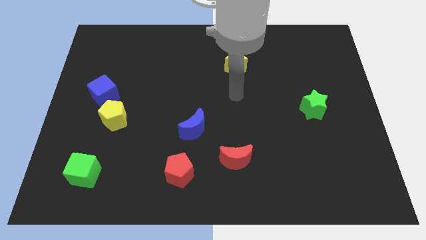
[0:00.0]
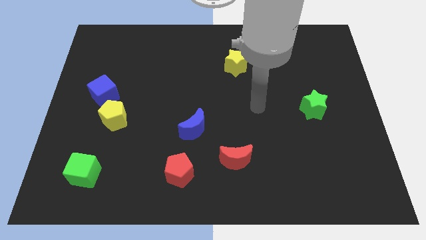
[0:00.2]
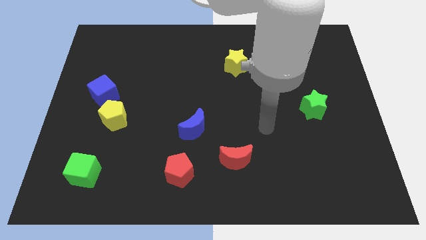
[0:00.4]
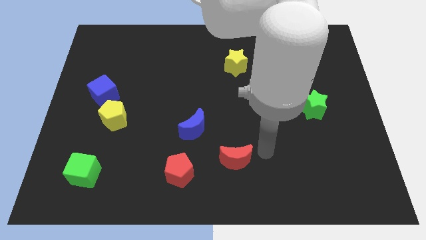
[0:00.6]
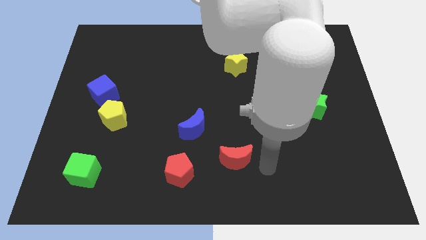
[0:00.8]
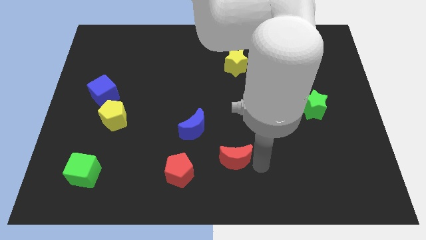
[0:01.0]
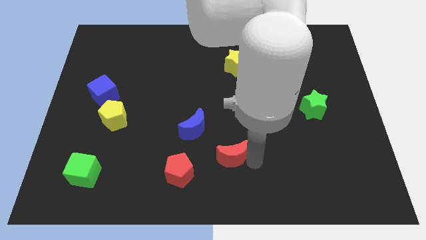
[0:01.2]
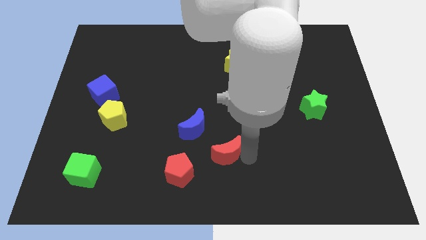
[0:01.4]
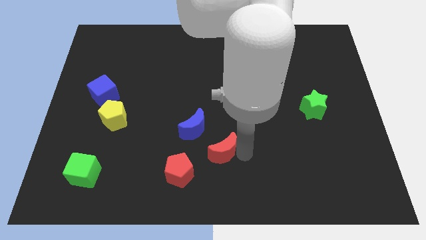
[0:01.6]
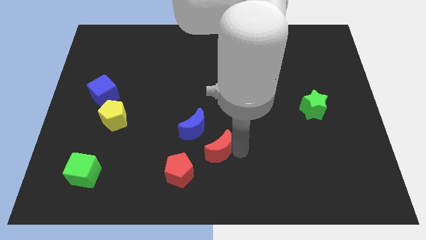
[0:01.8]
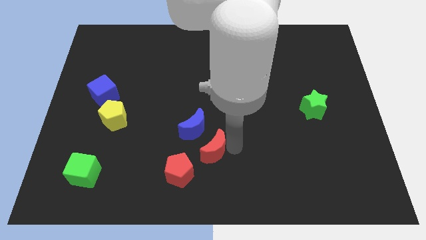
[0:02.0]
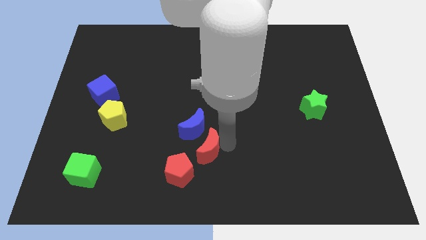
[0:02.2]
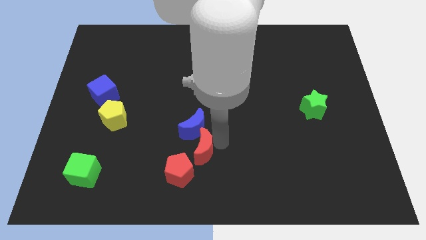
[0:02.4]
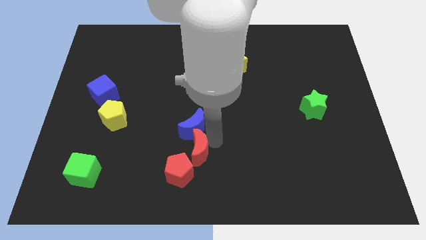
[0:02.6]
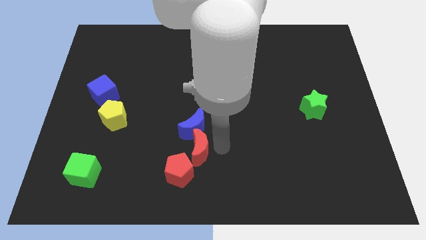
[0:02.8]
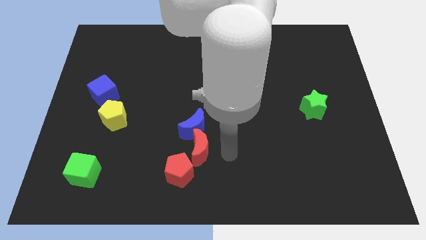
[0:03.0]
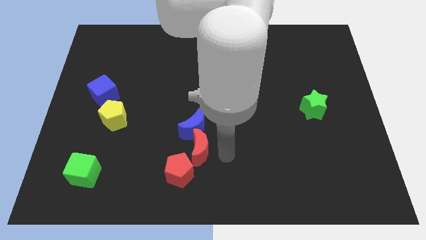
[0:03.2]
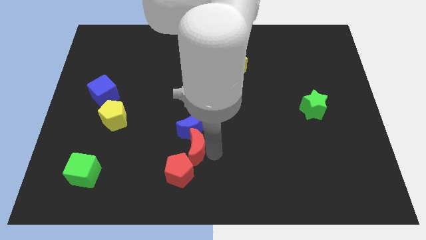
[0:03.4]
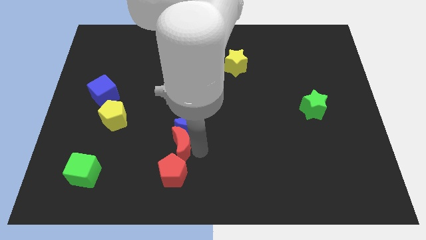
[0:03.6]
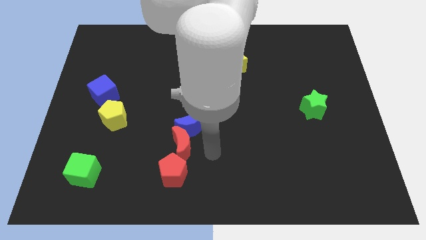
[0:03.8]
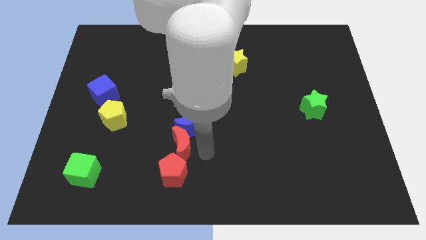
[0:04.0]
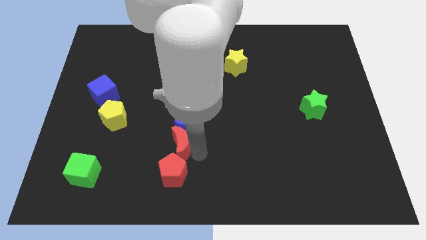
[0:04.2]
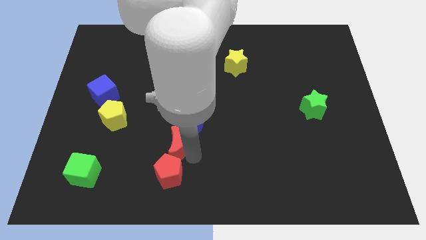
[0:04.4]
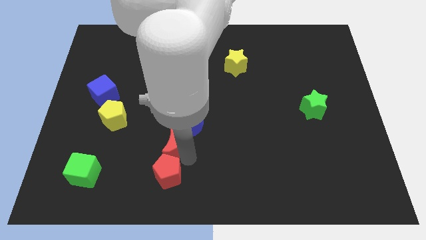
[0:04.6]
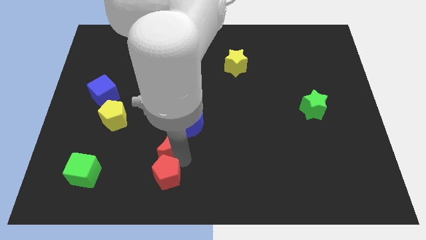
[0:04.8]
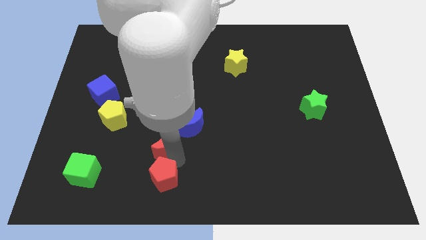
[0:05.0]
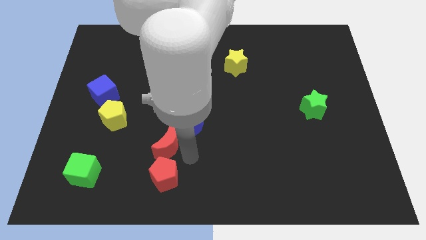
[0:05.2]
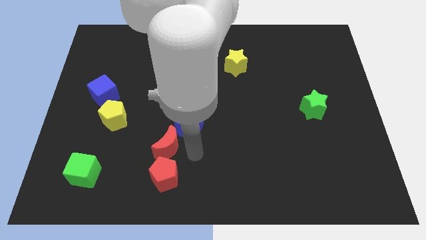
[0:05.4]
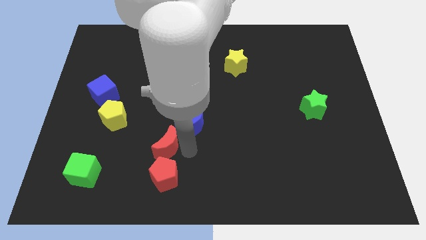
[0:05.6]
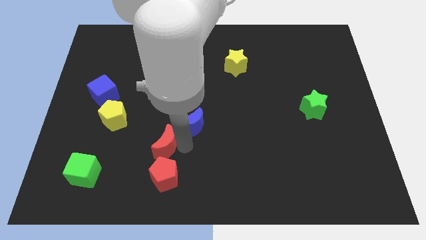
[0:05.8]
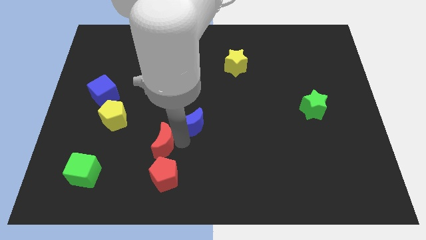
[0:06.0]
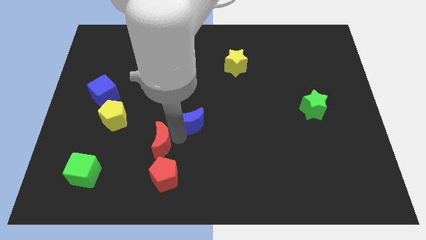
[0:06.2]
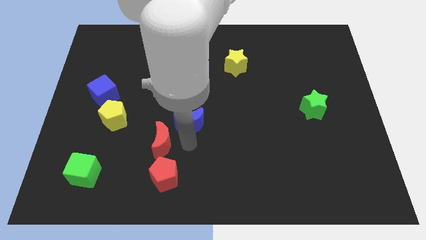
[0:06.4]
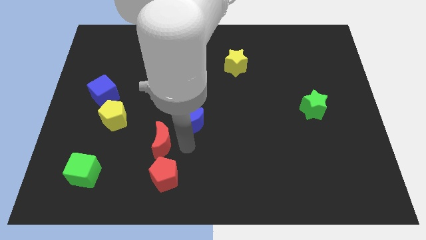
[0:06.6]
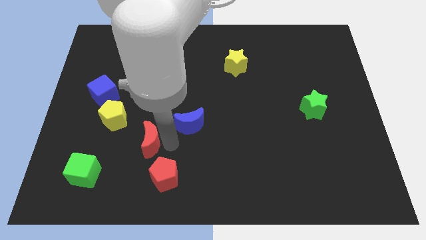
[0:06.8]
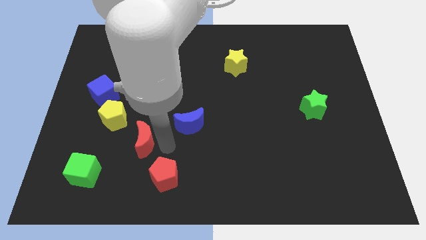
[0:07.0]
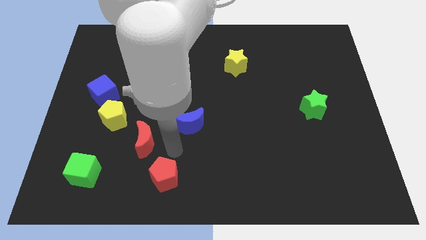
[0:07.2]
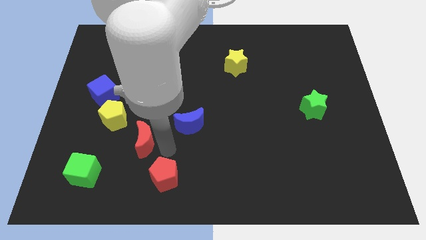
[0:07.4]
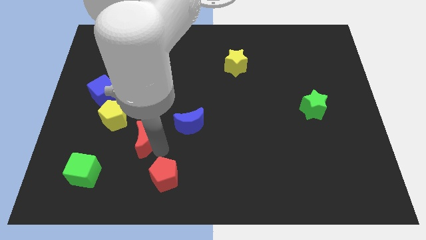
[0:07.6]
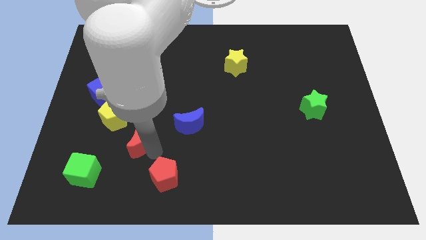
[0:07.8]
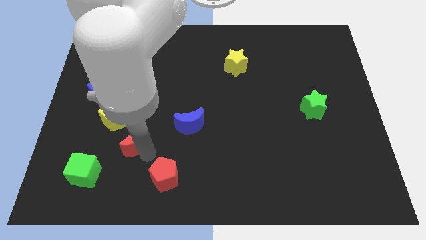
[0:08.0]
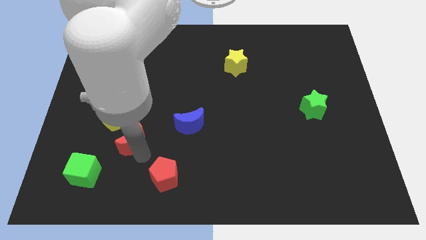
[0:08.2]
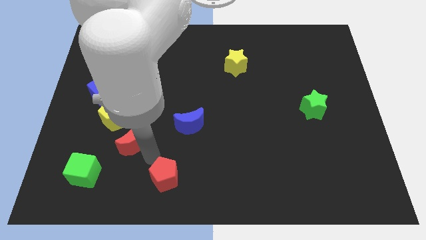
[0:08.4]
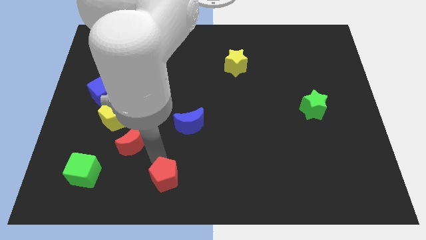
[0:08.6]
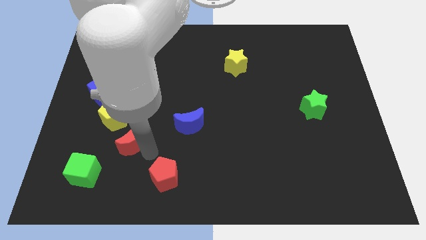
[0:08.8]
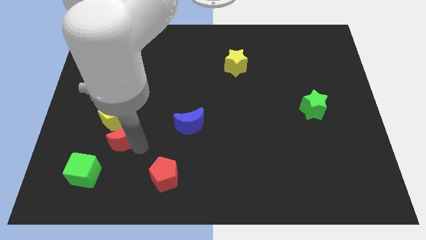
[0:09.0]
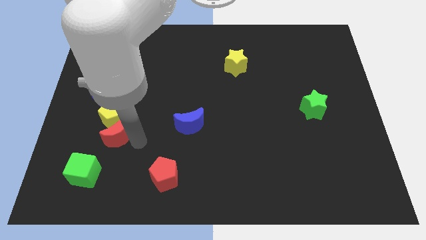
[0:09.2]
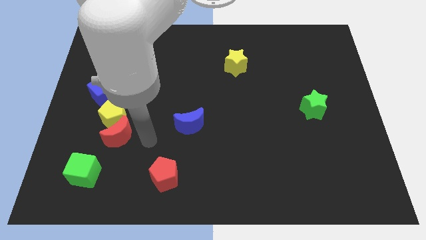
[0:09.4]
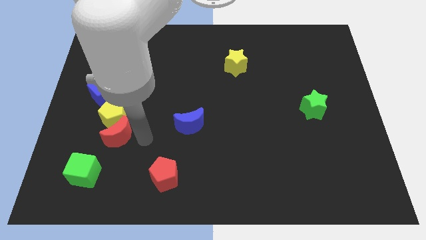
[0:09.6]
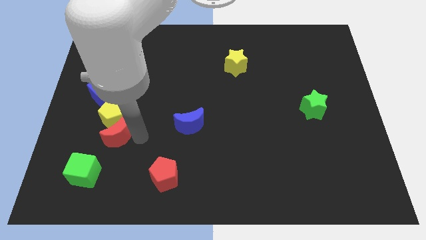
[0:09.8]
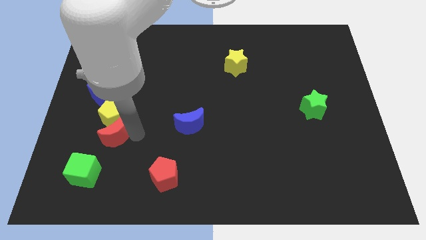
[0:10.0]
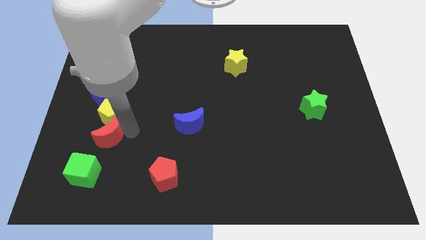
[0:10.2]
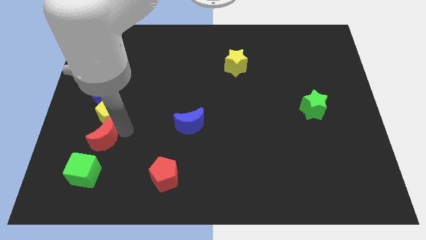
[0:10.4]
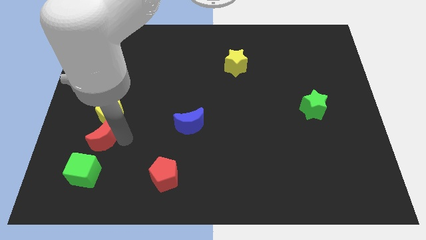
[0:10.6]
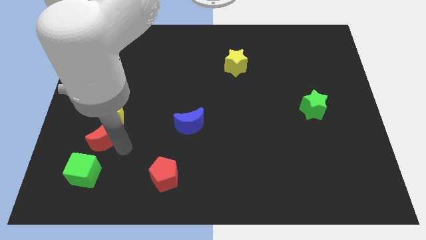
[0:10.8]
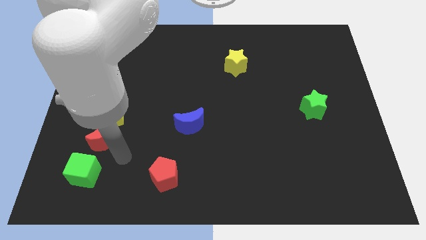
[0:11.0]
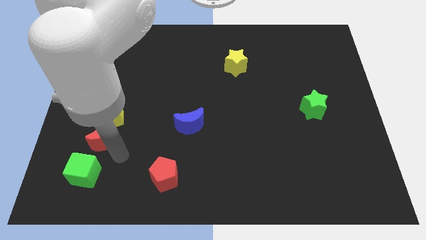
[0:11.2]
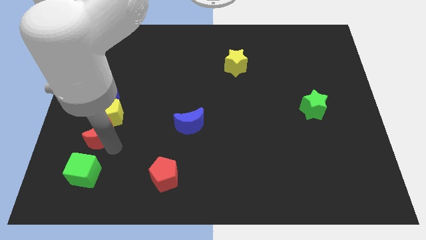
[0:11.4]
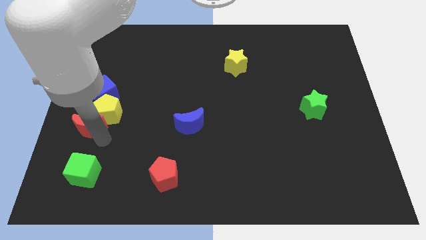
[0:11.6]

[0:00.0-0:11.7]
move the red moon to the left side of the board
